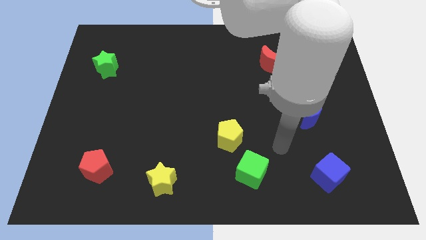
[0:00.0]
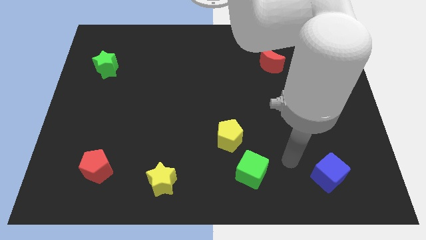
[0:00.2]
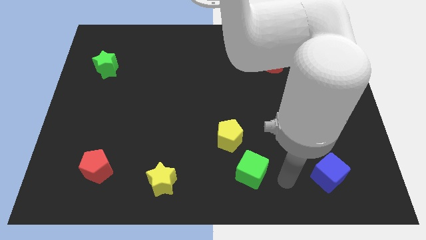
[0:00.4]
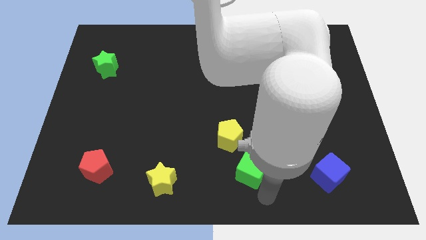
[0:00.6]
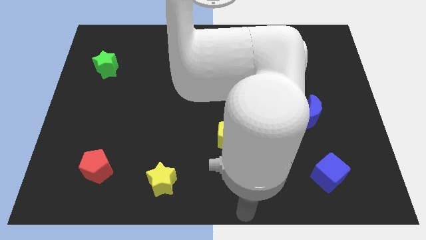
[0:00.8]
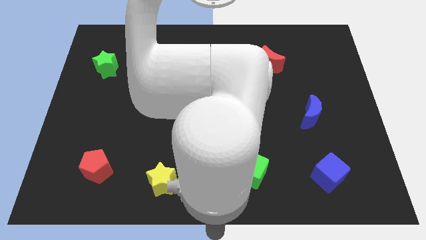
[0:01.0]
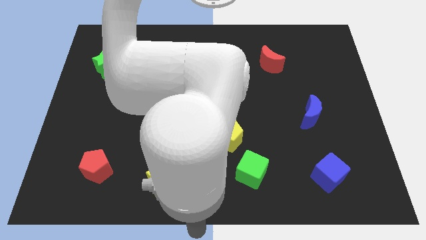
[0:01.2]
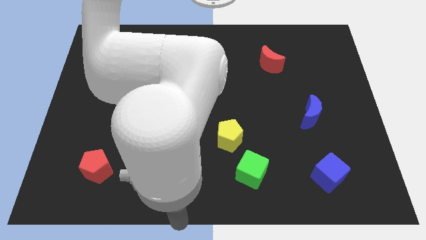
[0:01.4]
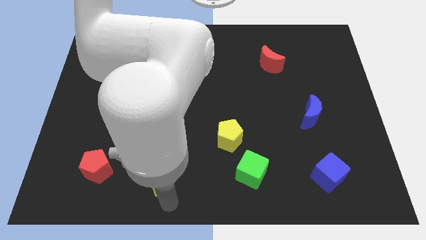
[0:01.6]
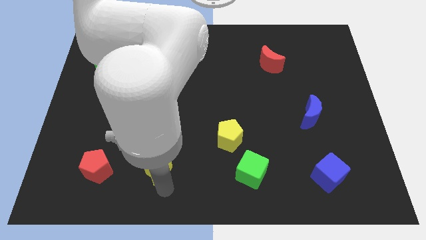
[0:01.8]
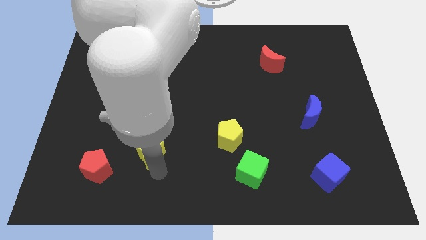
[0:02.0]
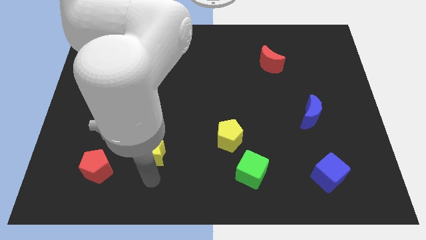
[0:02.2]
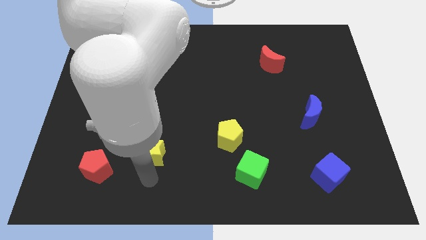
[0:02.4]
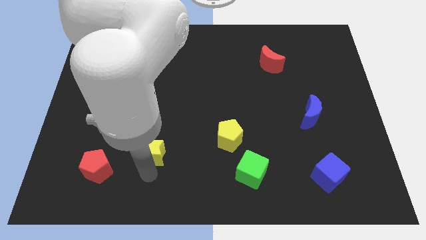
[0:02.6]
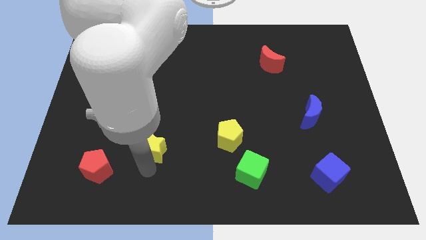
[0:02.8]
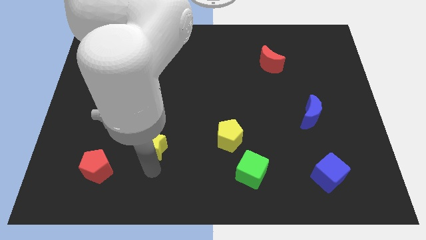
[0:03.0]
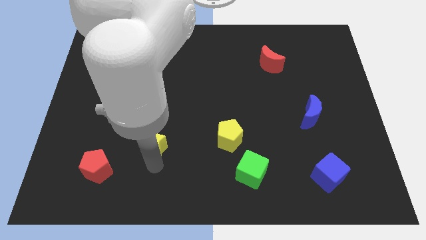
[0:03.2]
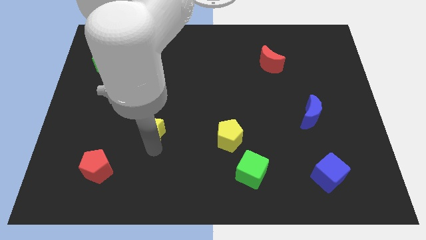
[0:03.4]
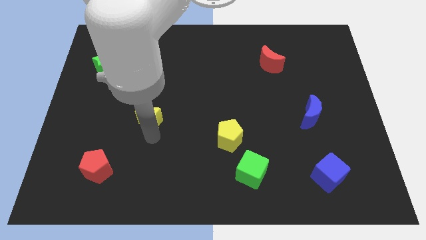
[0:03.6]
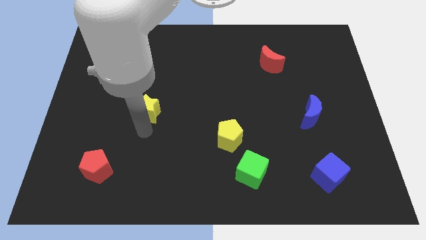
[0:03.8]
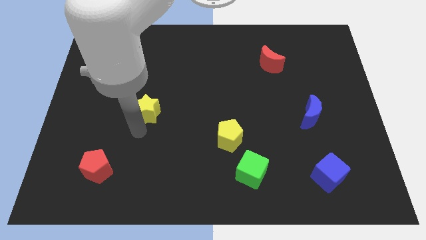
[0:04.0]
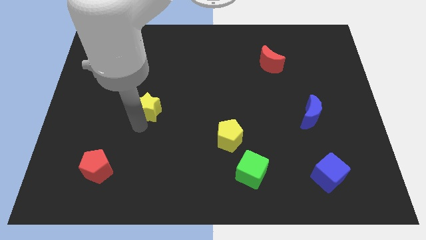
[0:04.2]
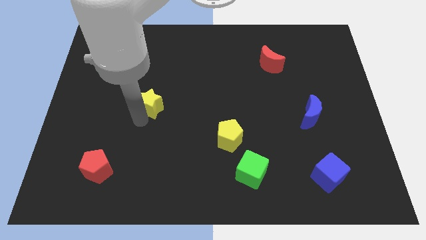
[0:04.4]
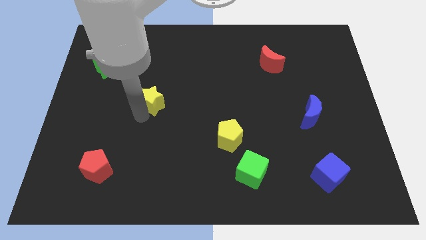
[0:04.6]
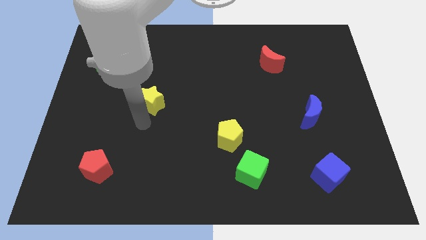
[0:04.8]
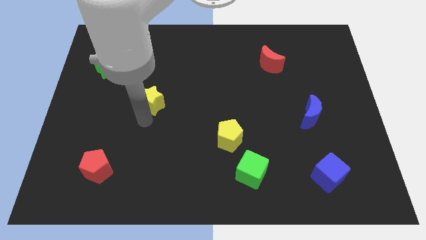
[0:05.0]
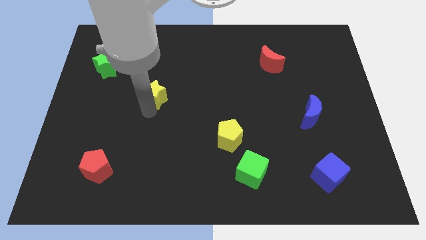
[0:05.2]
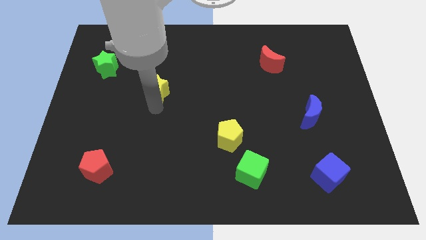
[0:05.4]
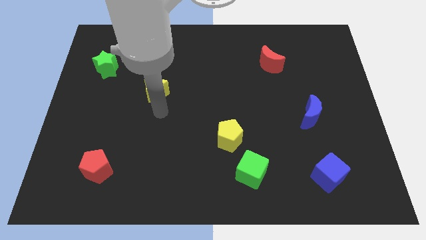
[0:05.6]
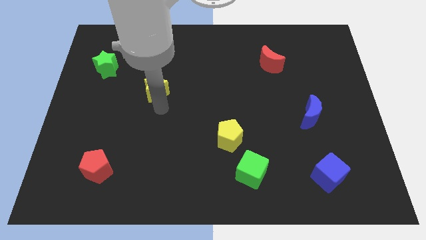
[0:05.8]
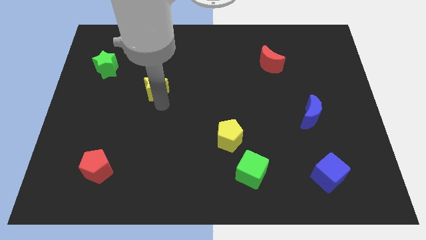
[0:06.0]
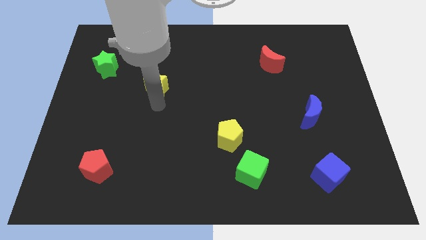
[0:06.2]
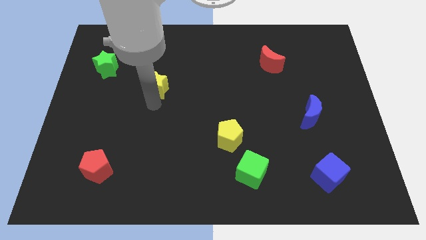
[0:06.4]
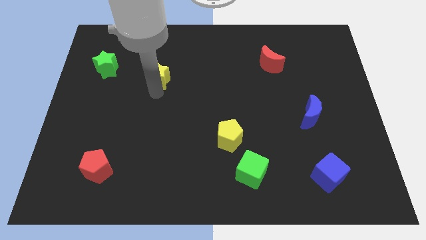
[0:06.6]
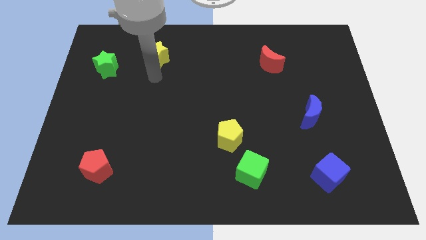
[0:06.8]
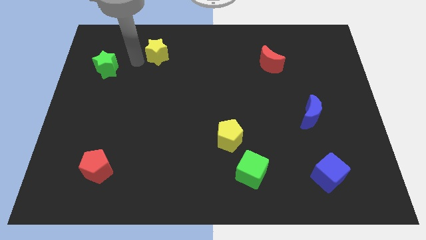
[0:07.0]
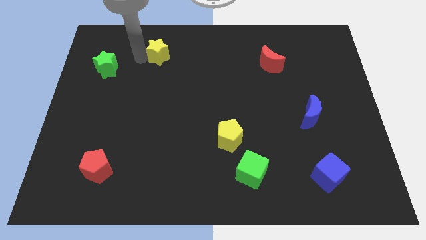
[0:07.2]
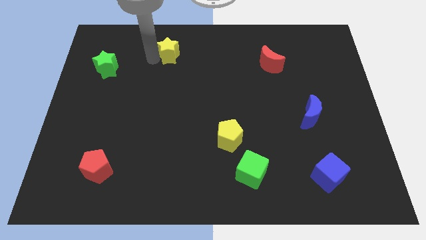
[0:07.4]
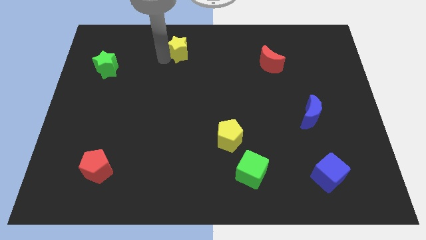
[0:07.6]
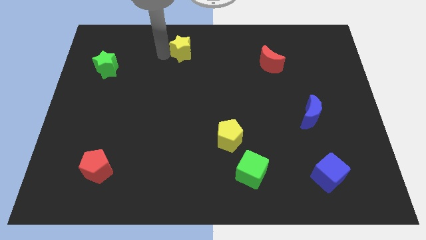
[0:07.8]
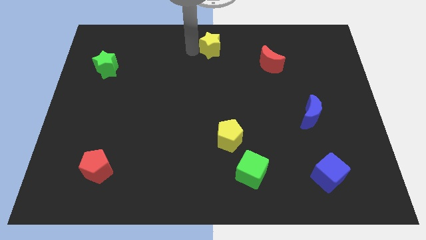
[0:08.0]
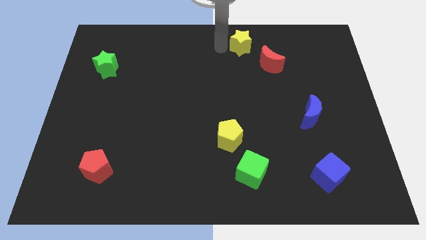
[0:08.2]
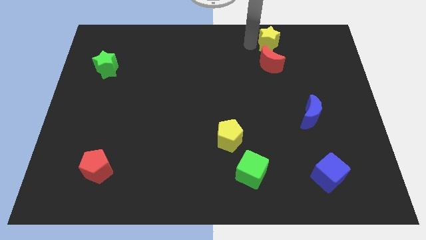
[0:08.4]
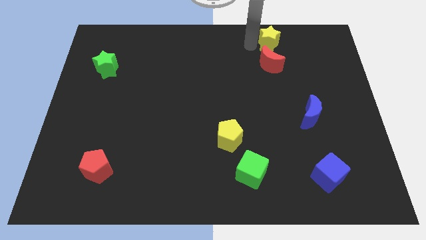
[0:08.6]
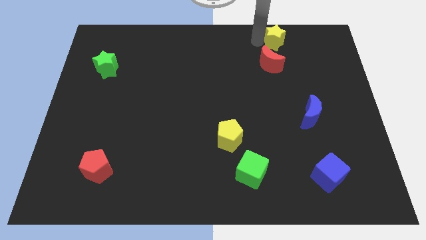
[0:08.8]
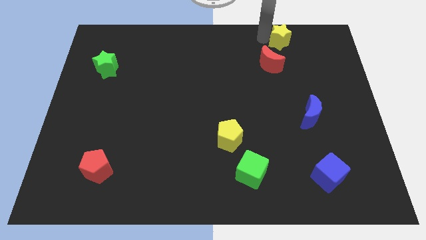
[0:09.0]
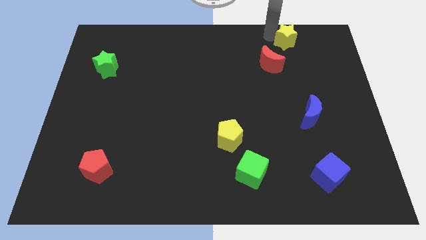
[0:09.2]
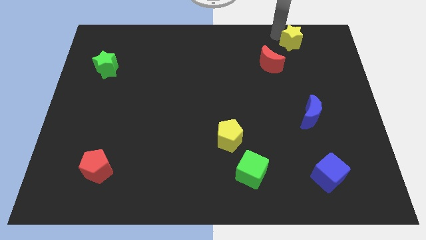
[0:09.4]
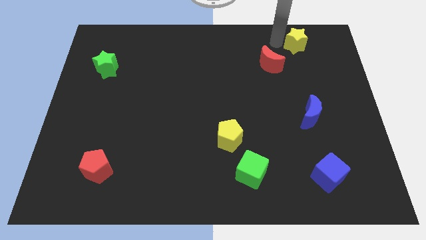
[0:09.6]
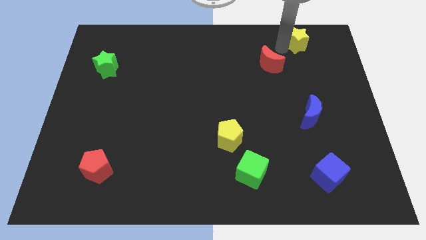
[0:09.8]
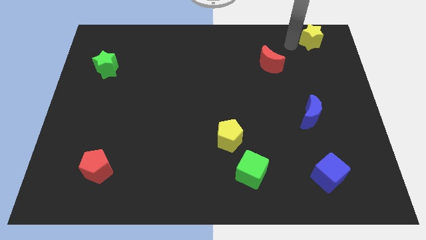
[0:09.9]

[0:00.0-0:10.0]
put the yellow star to the top right corner

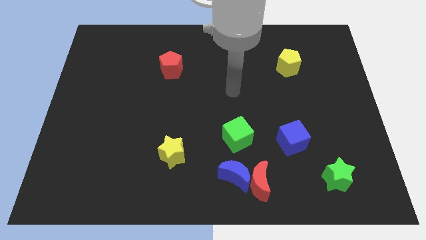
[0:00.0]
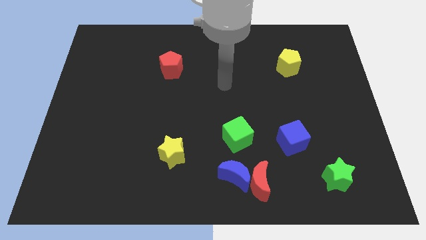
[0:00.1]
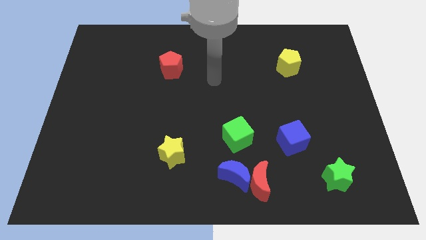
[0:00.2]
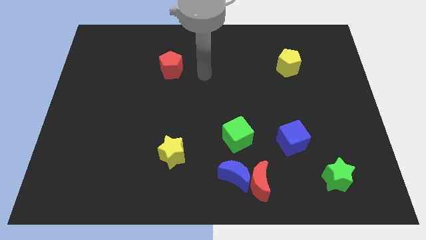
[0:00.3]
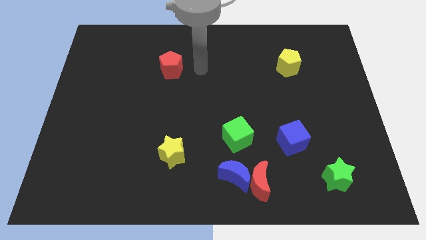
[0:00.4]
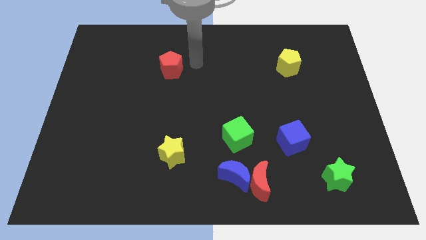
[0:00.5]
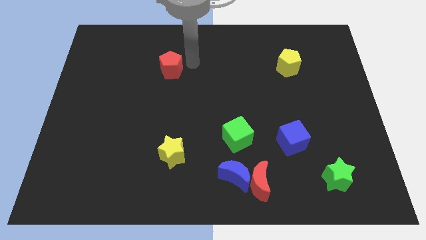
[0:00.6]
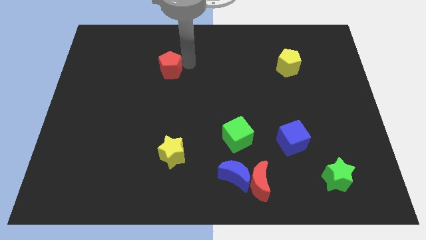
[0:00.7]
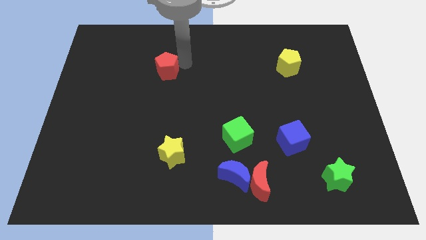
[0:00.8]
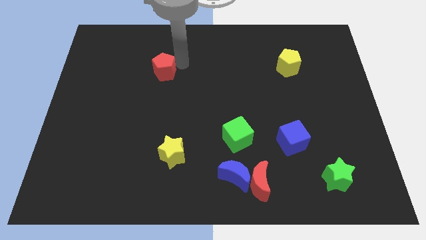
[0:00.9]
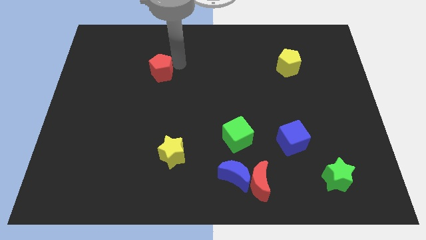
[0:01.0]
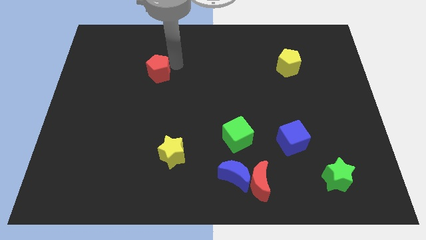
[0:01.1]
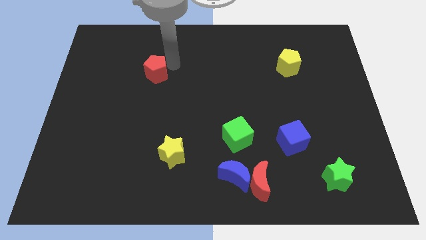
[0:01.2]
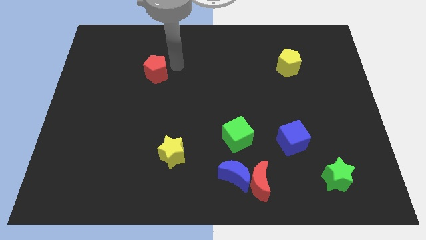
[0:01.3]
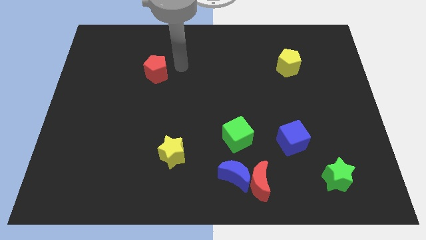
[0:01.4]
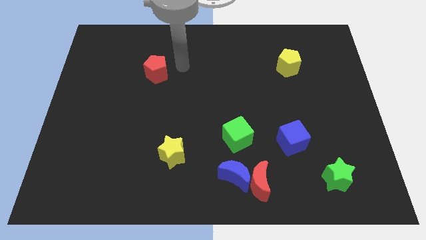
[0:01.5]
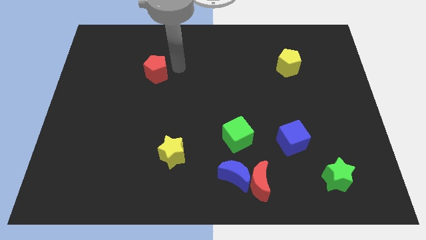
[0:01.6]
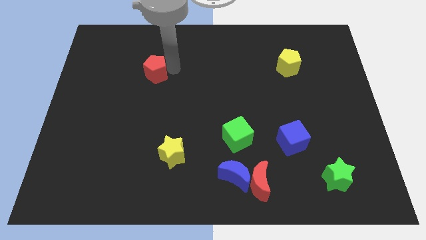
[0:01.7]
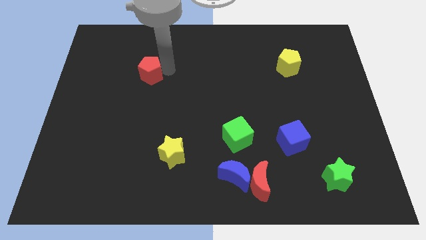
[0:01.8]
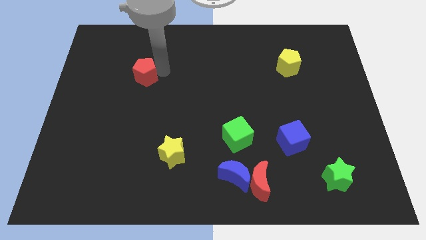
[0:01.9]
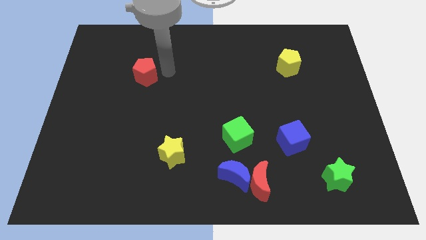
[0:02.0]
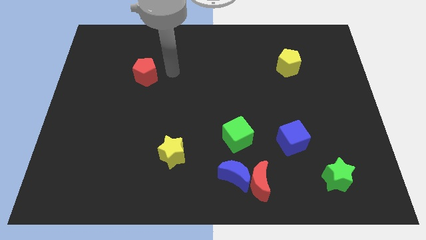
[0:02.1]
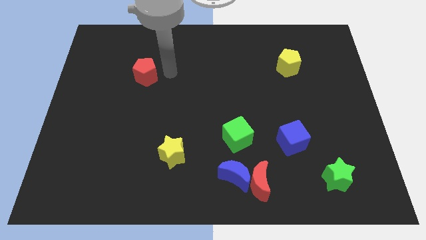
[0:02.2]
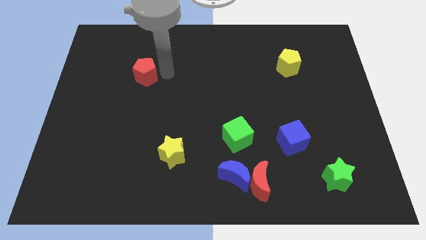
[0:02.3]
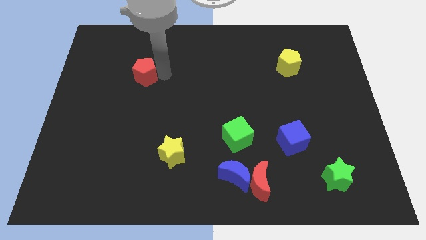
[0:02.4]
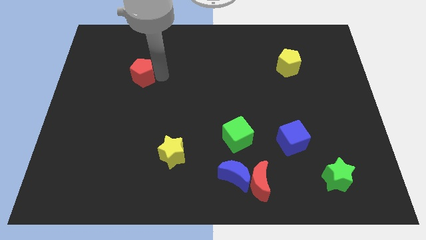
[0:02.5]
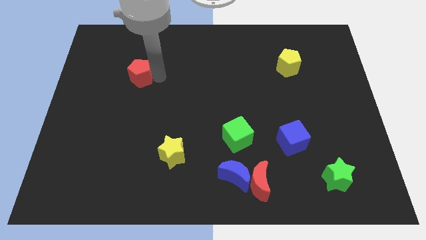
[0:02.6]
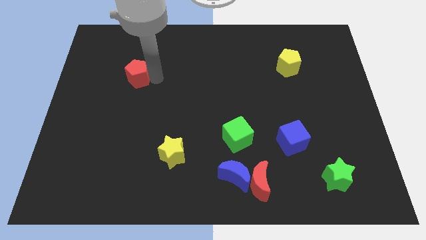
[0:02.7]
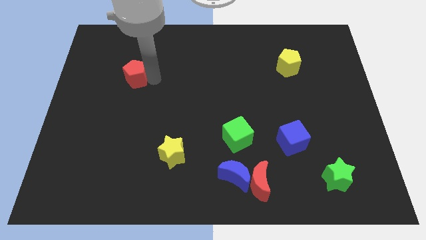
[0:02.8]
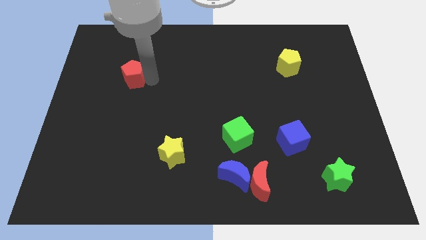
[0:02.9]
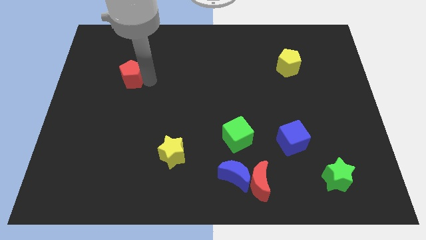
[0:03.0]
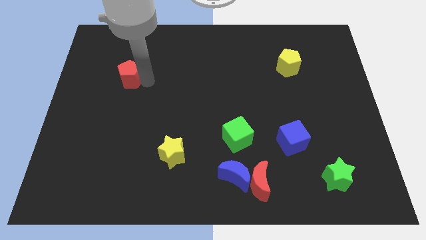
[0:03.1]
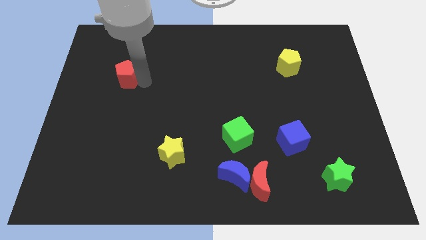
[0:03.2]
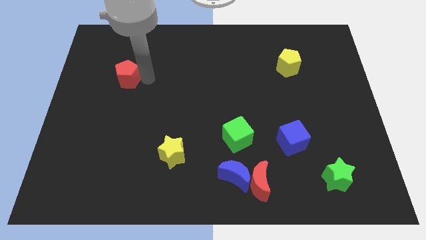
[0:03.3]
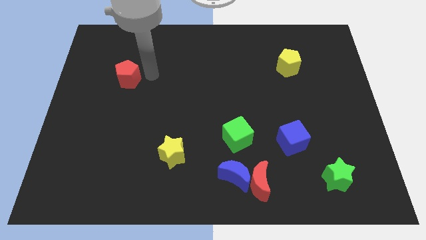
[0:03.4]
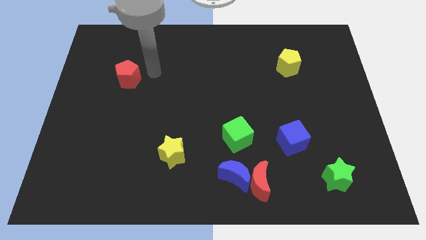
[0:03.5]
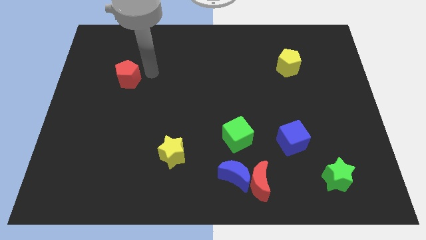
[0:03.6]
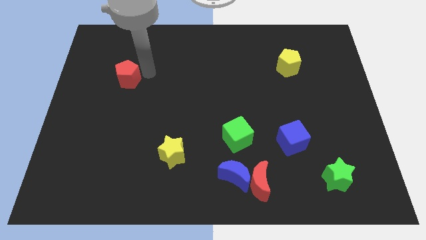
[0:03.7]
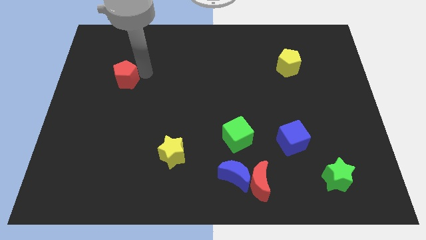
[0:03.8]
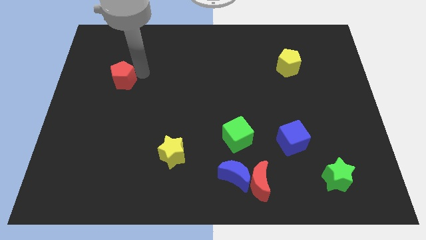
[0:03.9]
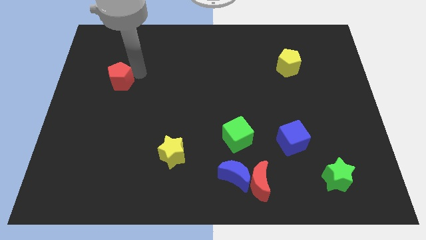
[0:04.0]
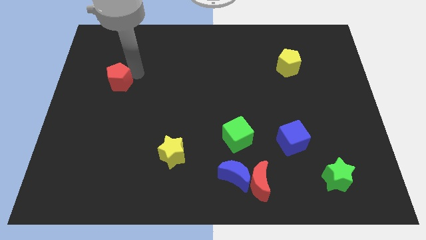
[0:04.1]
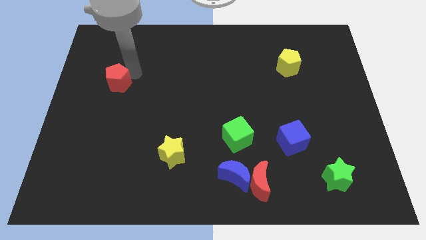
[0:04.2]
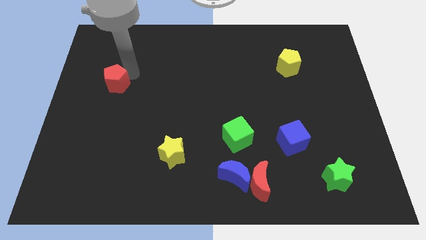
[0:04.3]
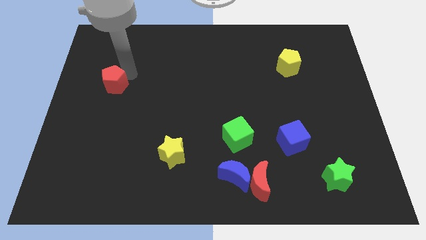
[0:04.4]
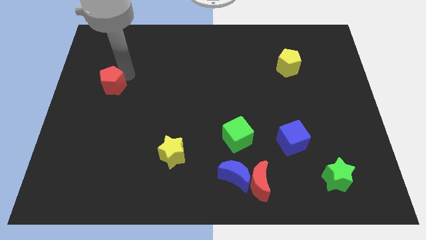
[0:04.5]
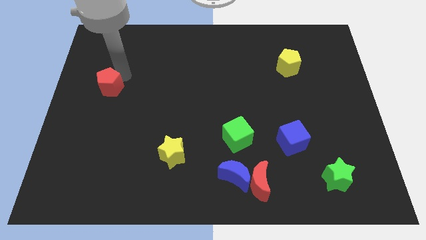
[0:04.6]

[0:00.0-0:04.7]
push the red pentagon to the left side of the board
